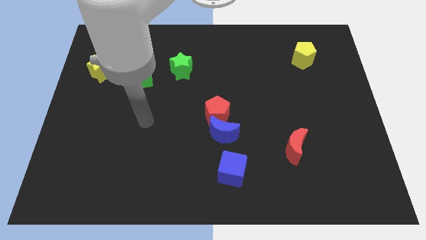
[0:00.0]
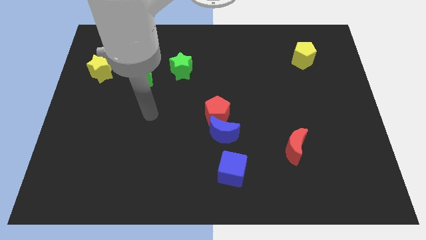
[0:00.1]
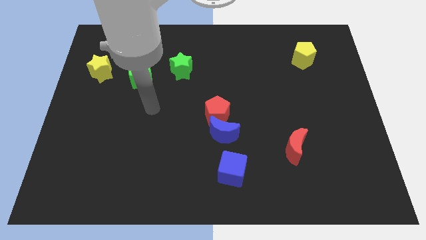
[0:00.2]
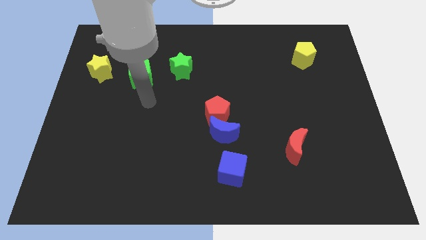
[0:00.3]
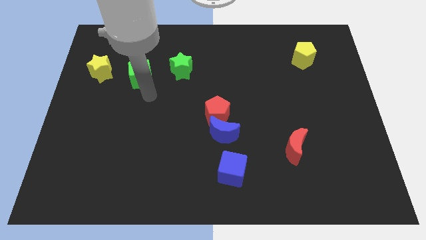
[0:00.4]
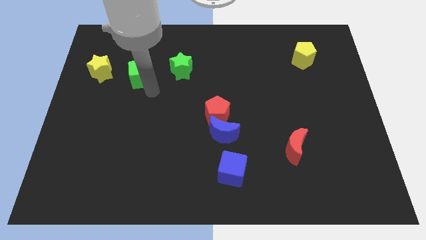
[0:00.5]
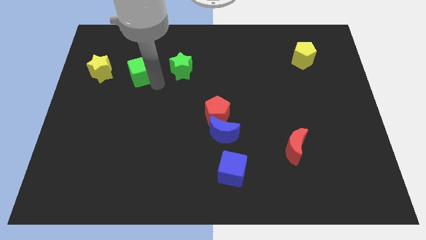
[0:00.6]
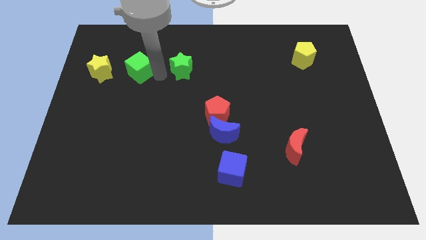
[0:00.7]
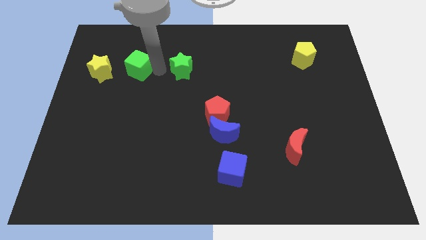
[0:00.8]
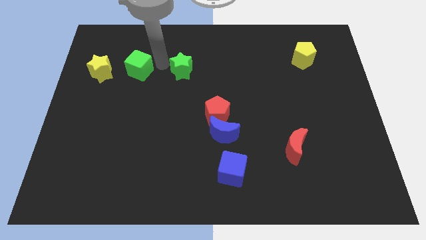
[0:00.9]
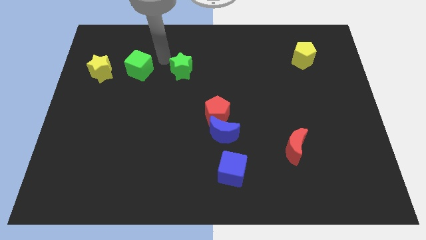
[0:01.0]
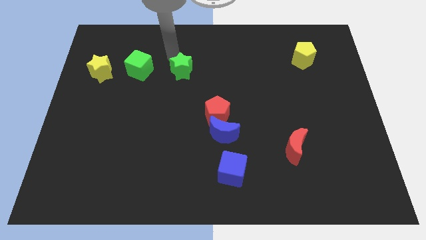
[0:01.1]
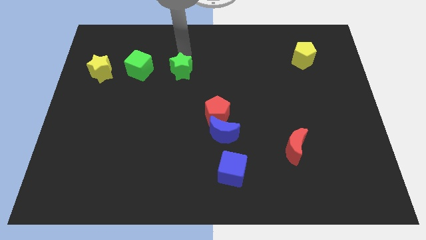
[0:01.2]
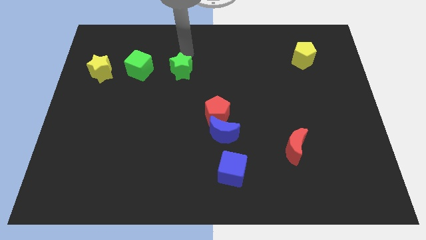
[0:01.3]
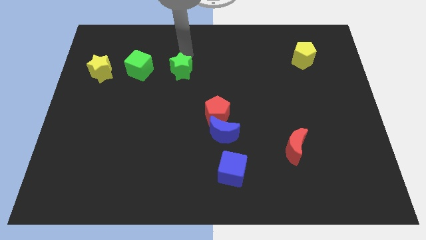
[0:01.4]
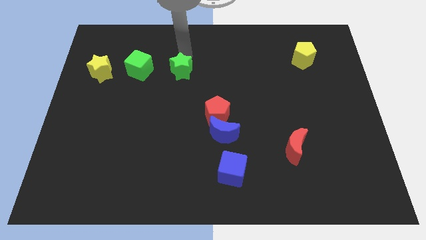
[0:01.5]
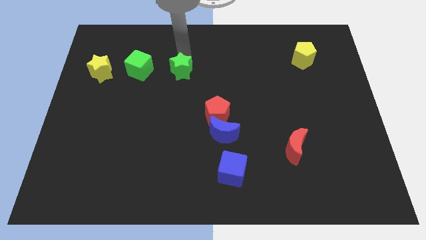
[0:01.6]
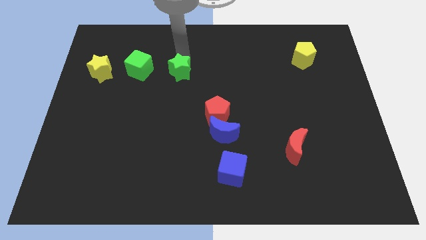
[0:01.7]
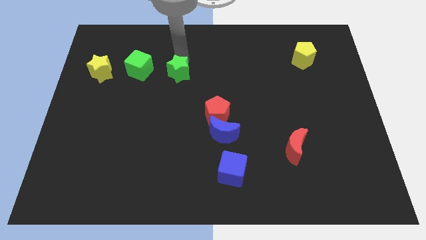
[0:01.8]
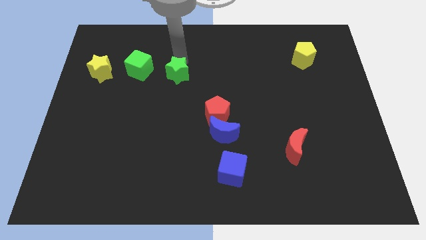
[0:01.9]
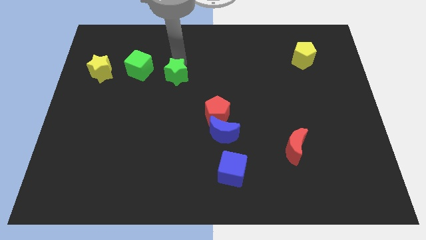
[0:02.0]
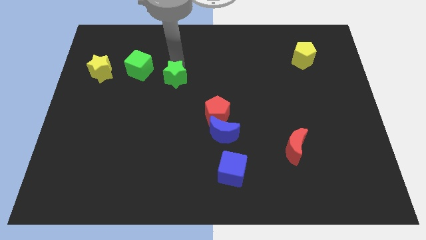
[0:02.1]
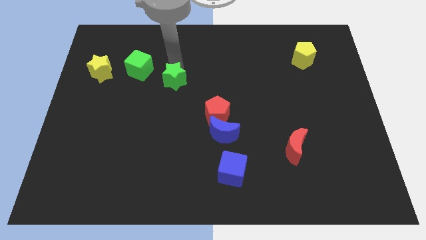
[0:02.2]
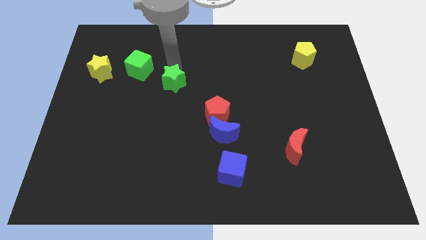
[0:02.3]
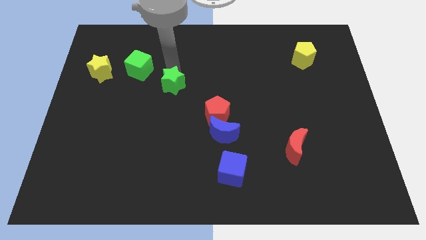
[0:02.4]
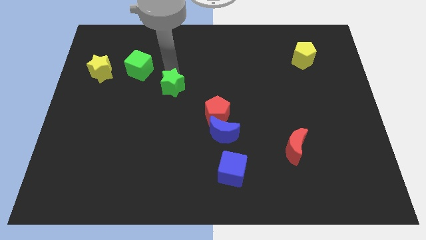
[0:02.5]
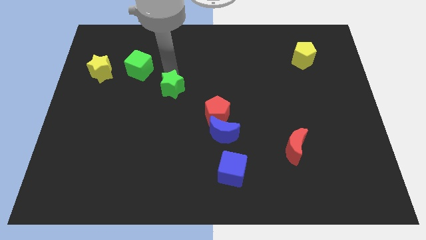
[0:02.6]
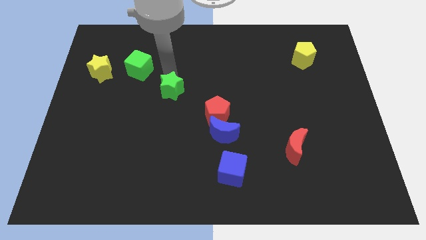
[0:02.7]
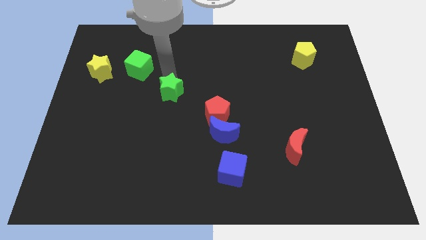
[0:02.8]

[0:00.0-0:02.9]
slightly move the green star down

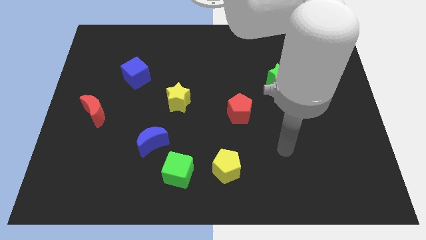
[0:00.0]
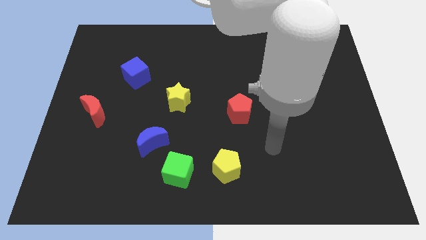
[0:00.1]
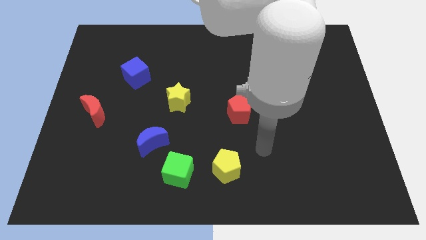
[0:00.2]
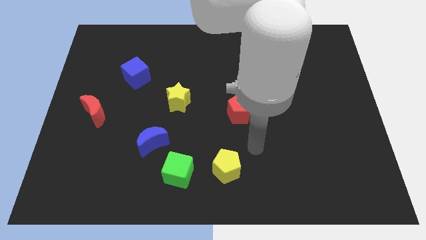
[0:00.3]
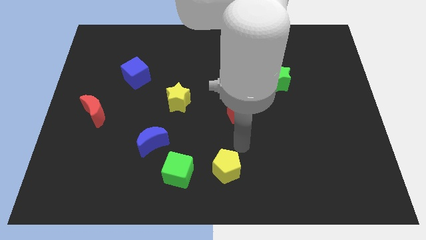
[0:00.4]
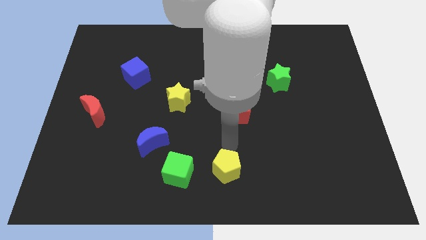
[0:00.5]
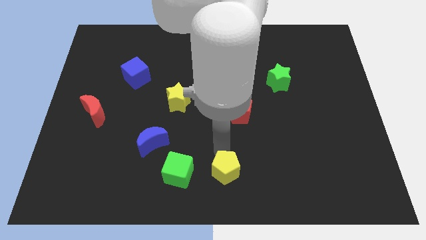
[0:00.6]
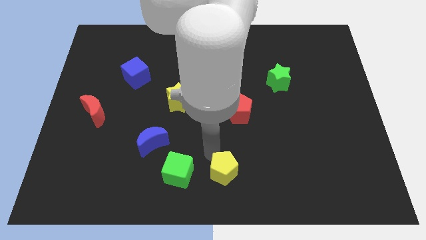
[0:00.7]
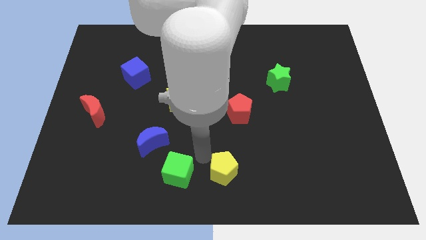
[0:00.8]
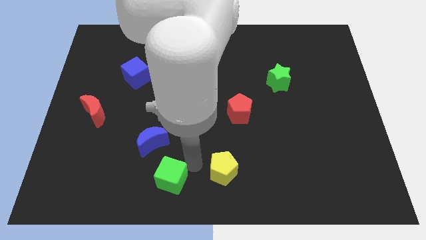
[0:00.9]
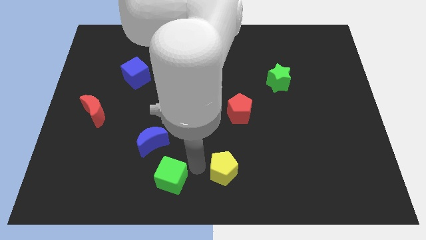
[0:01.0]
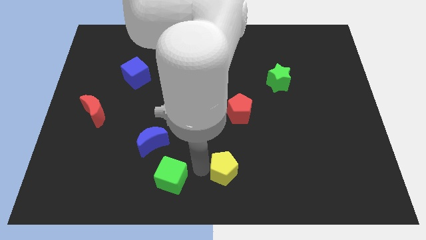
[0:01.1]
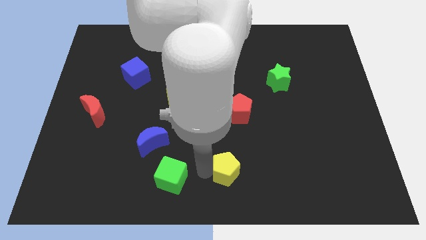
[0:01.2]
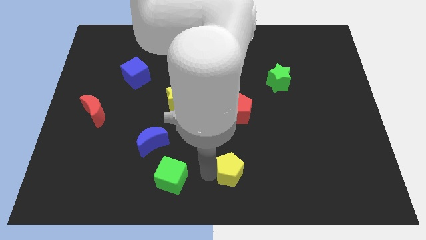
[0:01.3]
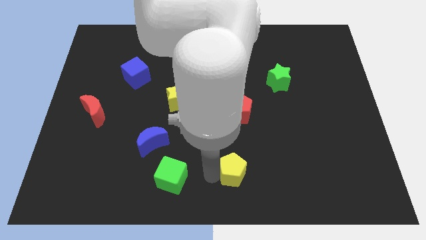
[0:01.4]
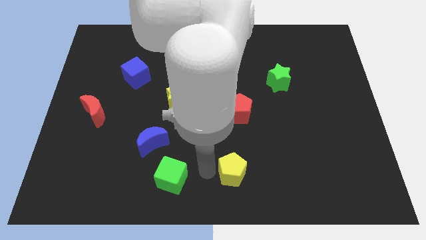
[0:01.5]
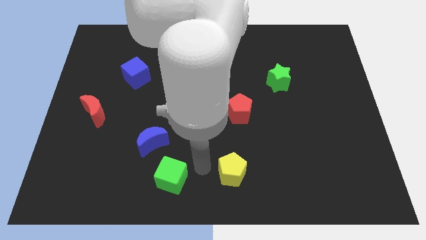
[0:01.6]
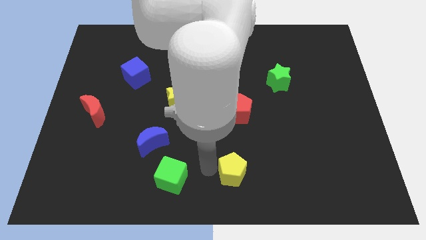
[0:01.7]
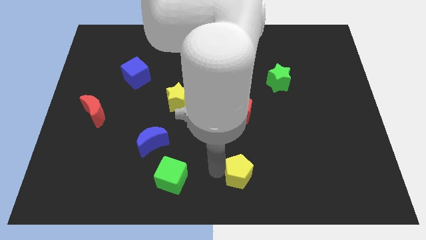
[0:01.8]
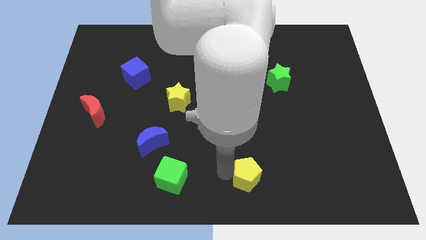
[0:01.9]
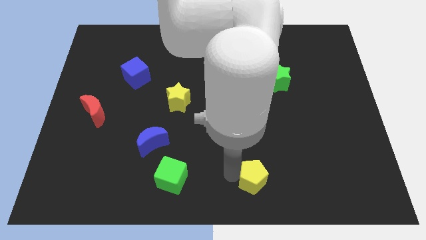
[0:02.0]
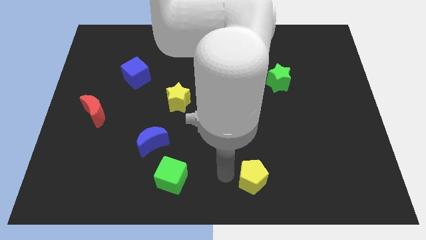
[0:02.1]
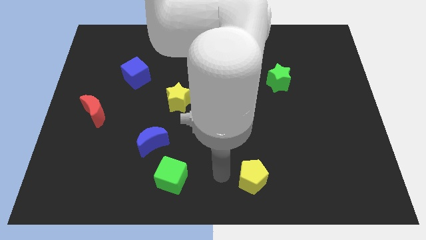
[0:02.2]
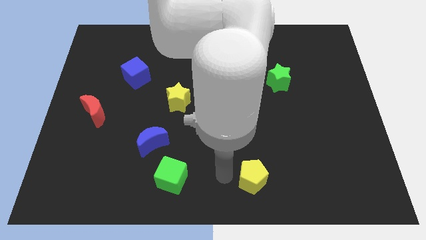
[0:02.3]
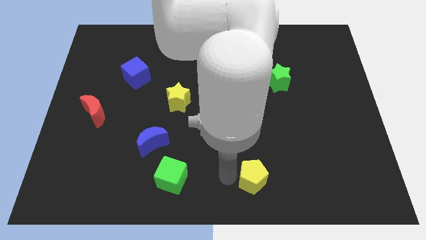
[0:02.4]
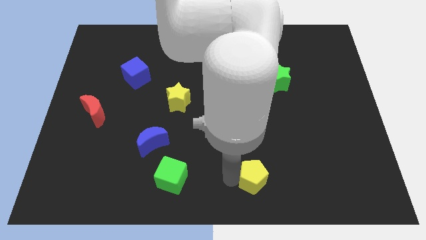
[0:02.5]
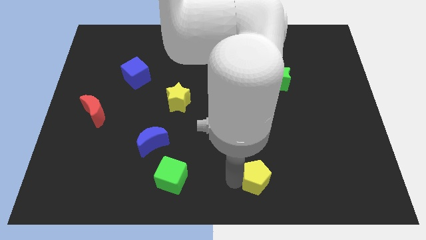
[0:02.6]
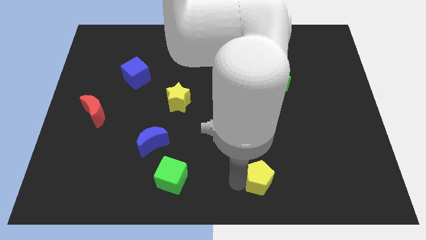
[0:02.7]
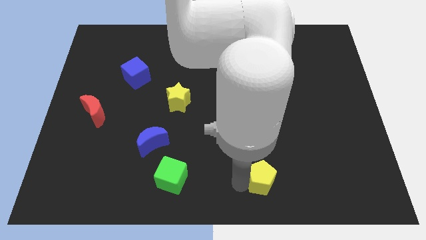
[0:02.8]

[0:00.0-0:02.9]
slide the yellow pentagon a little bit right

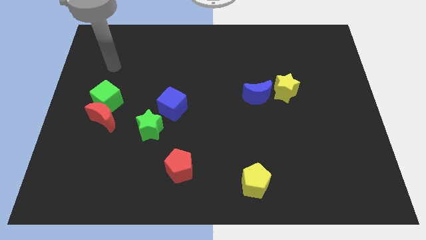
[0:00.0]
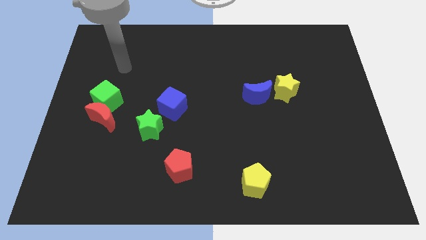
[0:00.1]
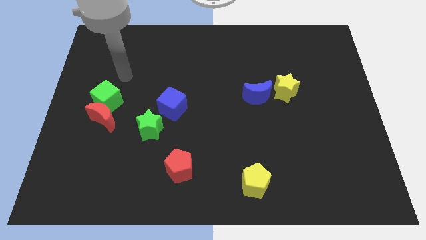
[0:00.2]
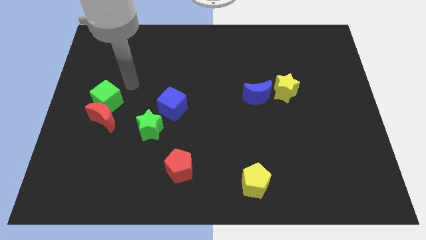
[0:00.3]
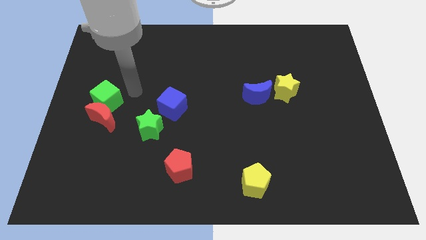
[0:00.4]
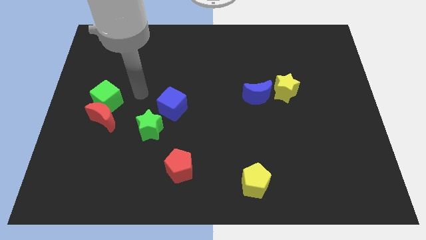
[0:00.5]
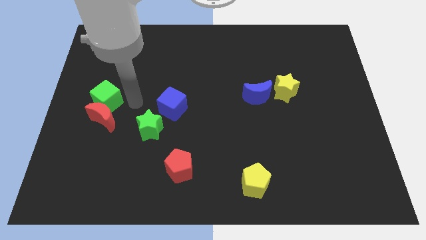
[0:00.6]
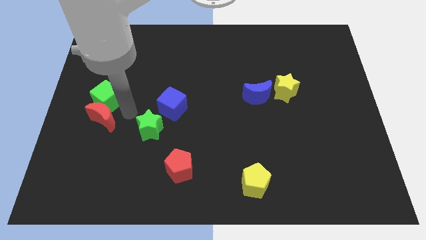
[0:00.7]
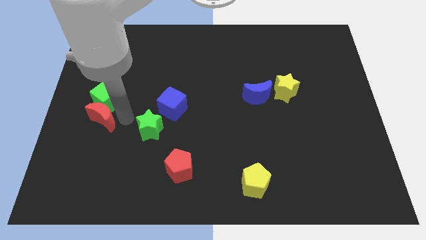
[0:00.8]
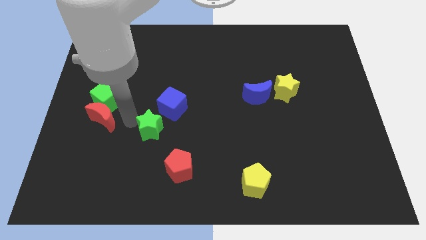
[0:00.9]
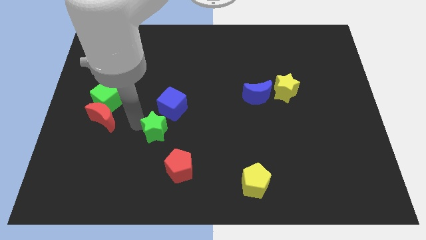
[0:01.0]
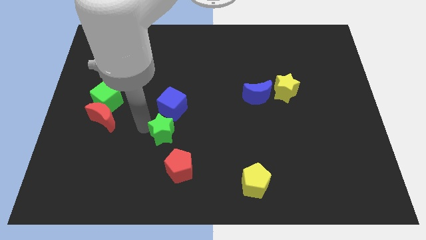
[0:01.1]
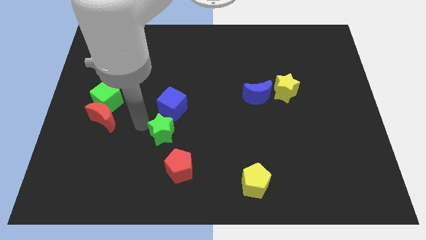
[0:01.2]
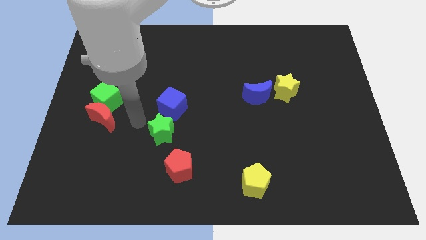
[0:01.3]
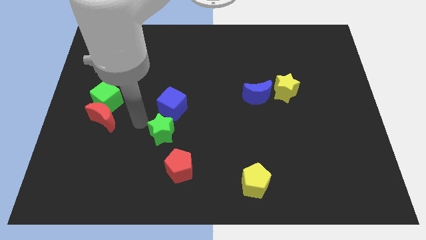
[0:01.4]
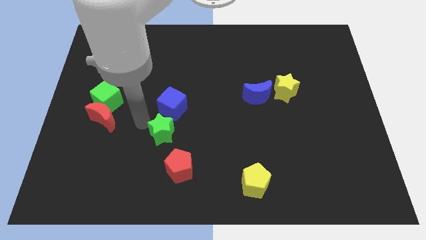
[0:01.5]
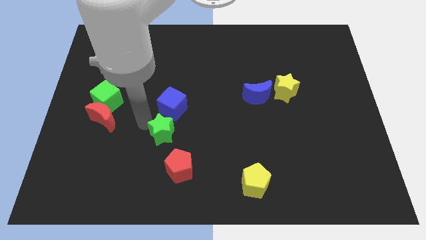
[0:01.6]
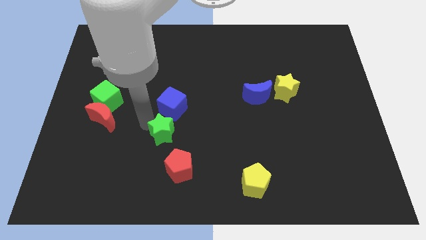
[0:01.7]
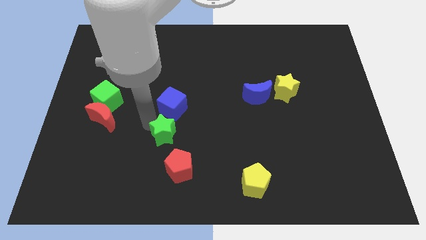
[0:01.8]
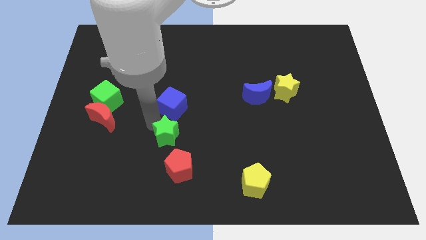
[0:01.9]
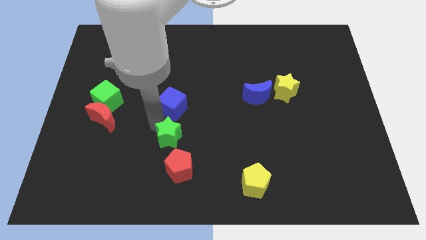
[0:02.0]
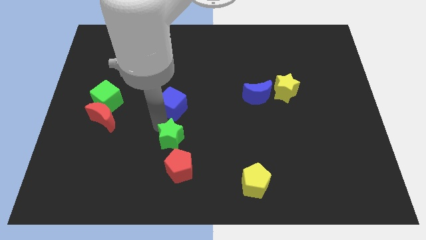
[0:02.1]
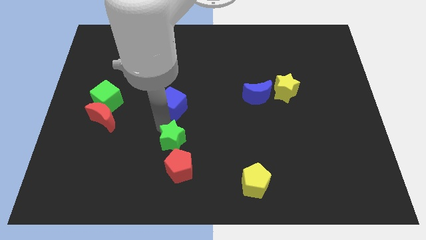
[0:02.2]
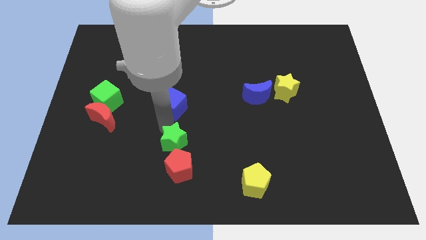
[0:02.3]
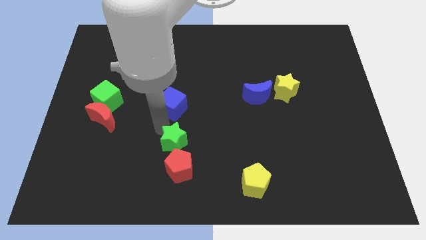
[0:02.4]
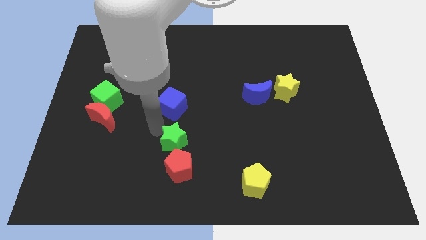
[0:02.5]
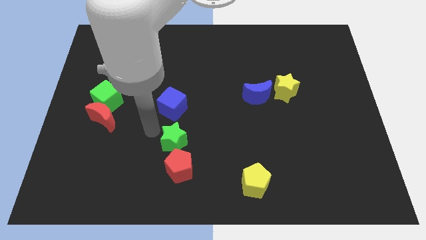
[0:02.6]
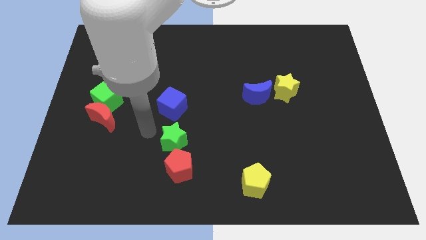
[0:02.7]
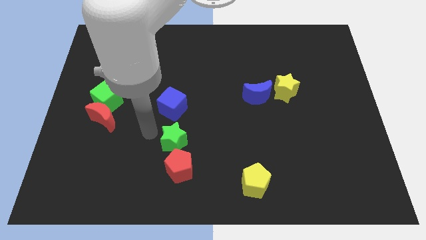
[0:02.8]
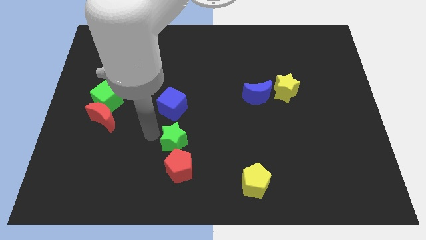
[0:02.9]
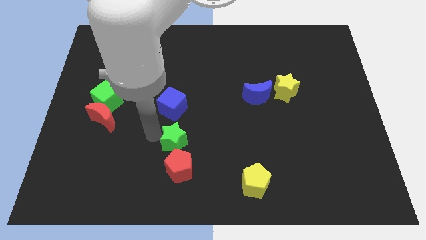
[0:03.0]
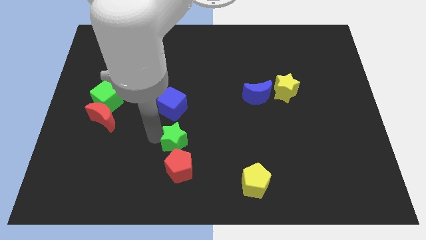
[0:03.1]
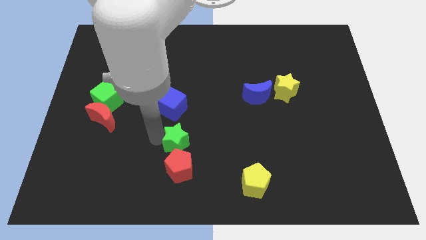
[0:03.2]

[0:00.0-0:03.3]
slightly push the green star downwards and right
